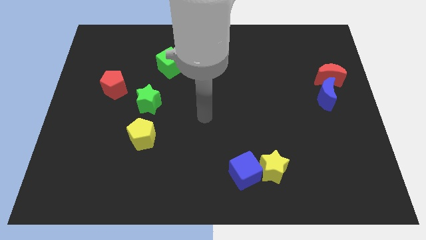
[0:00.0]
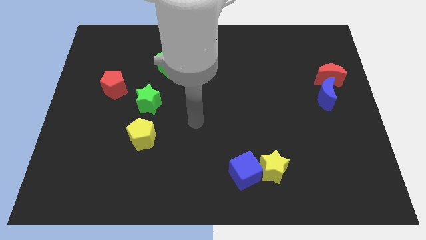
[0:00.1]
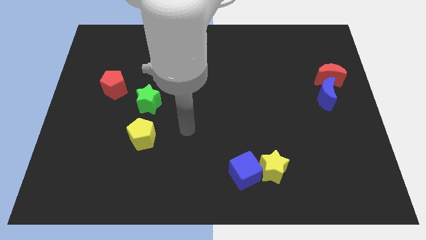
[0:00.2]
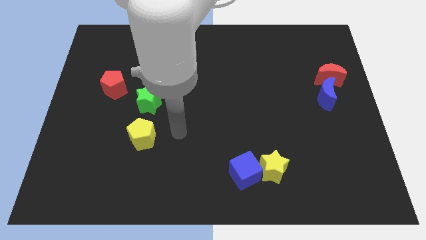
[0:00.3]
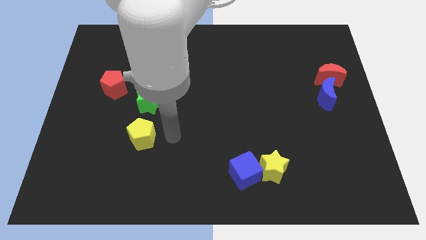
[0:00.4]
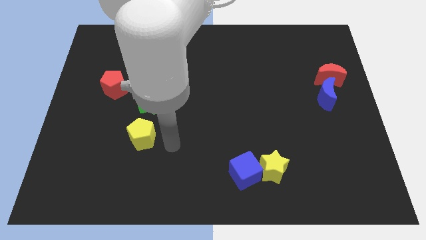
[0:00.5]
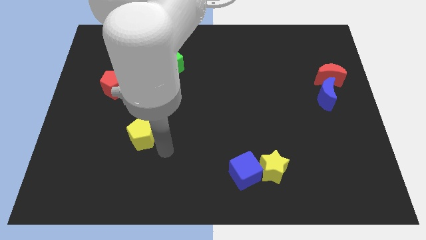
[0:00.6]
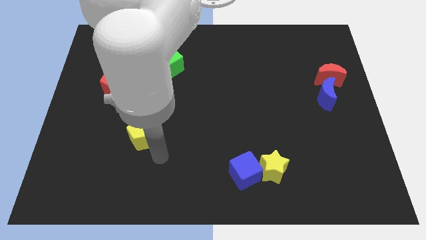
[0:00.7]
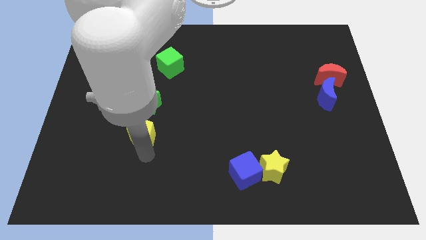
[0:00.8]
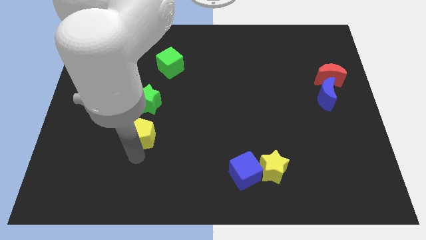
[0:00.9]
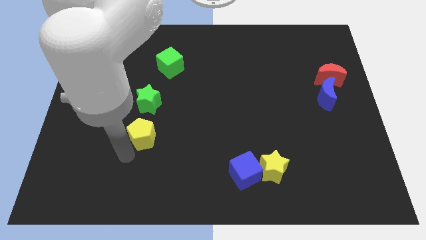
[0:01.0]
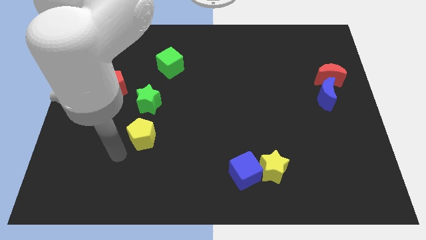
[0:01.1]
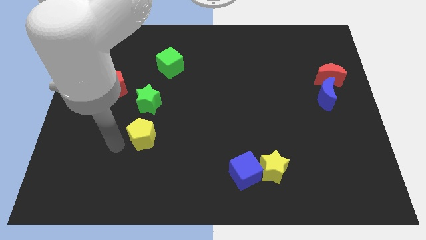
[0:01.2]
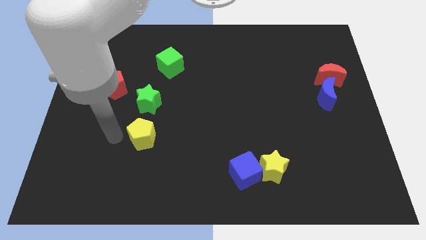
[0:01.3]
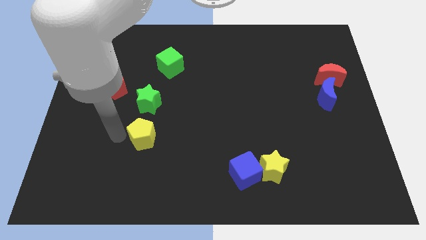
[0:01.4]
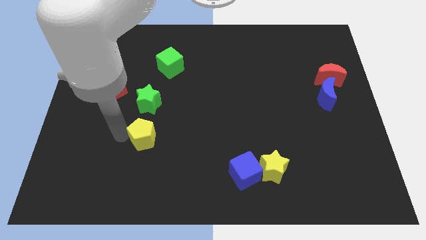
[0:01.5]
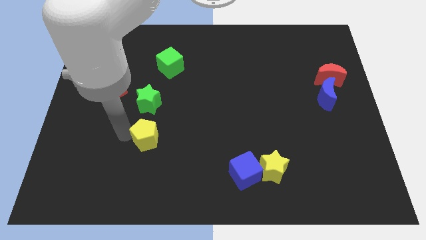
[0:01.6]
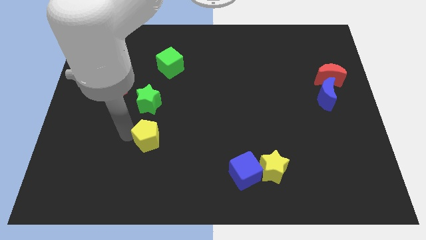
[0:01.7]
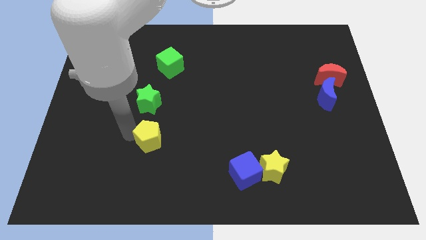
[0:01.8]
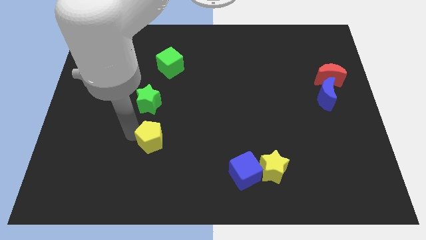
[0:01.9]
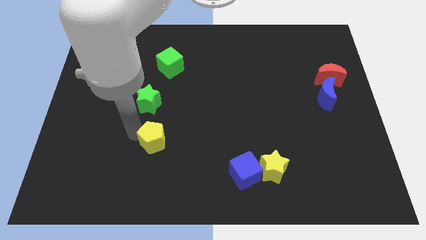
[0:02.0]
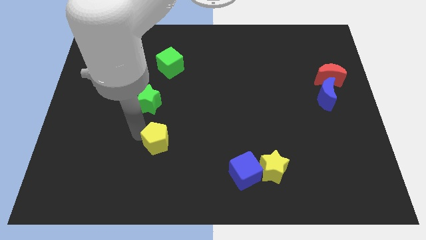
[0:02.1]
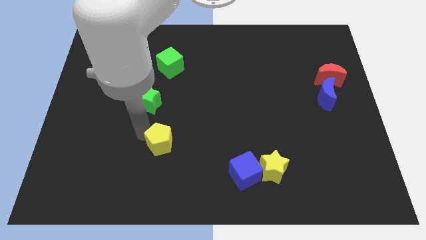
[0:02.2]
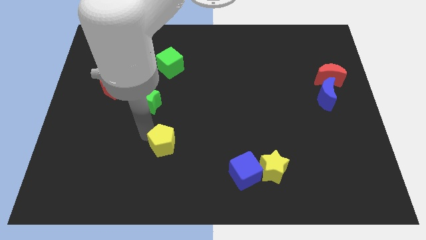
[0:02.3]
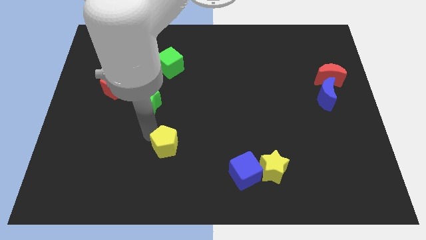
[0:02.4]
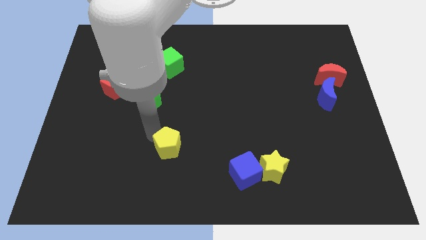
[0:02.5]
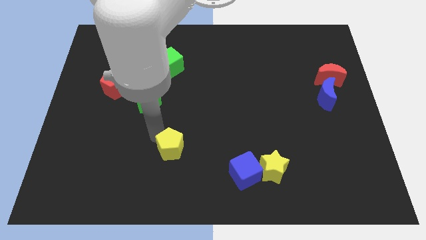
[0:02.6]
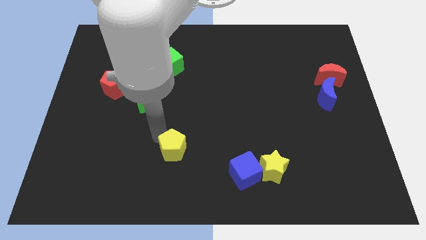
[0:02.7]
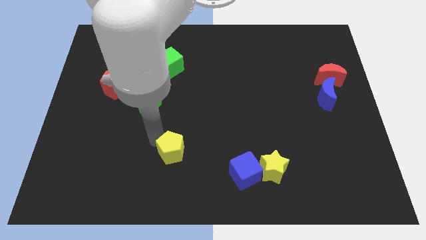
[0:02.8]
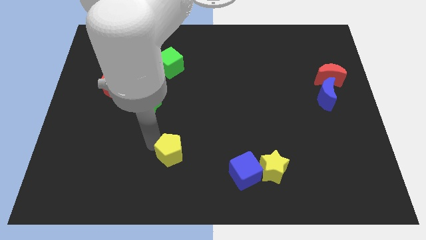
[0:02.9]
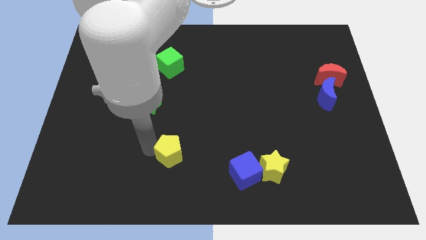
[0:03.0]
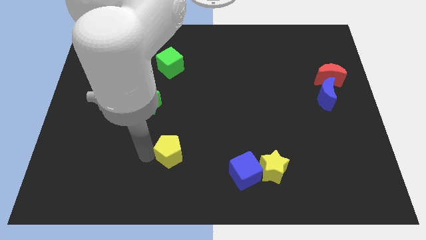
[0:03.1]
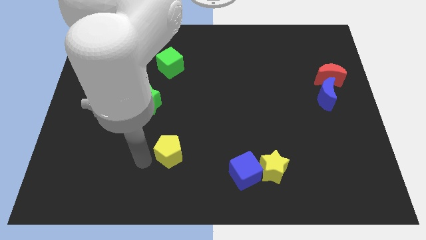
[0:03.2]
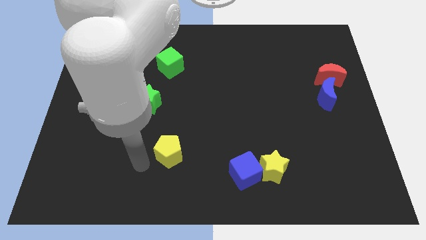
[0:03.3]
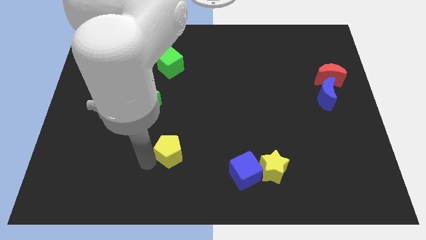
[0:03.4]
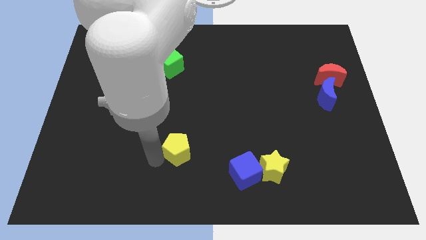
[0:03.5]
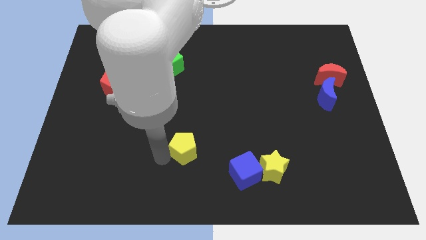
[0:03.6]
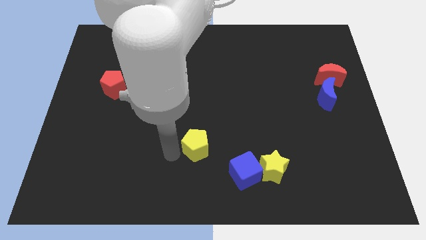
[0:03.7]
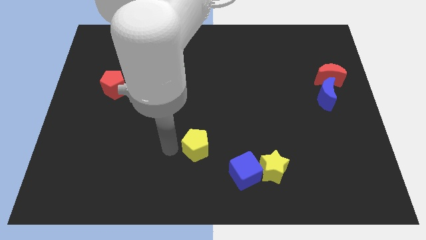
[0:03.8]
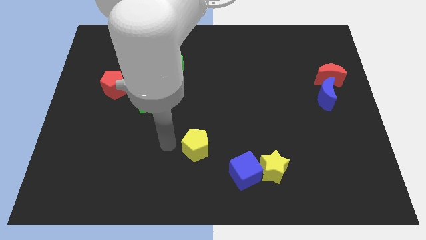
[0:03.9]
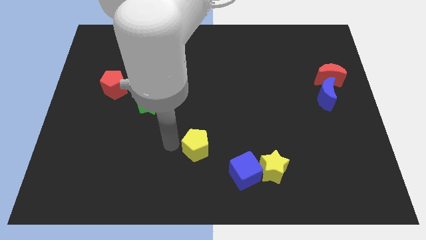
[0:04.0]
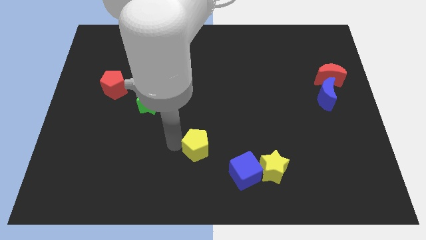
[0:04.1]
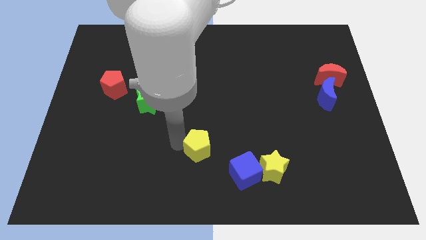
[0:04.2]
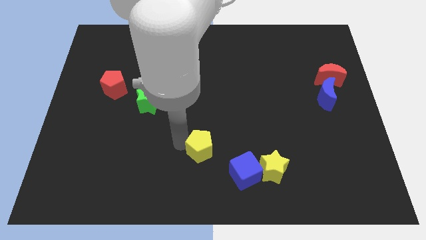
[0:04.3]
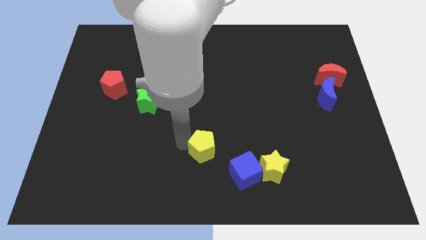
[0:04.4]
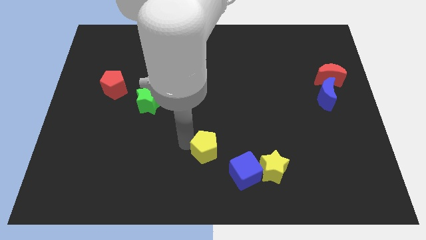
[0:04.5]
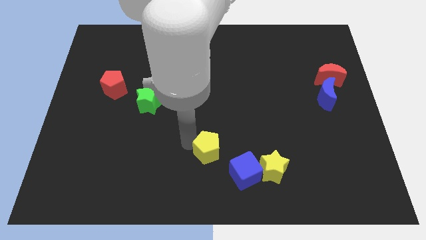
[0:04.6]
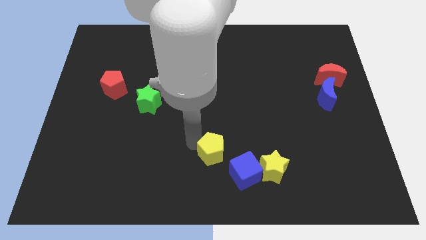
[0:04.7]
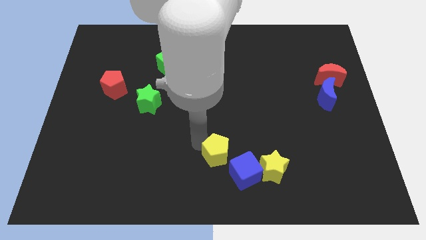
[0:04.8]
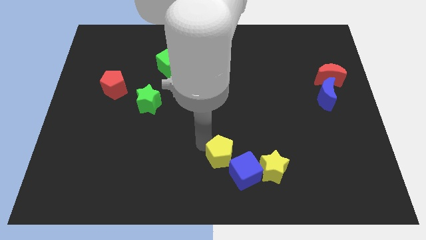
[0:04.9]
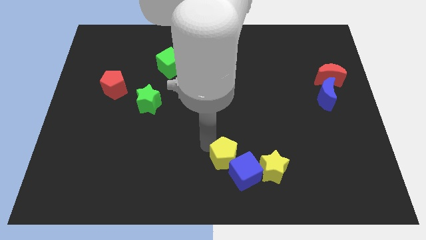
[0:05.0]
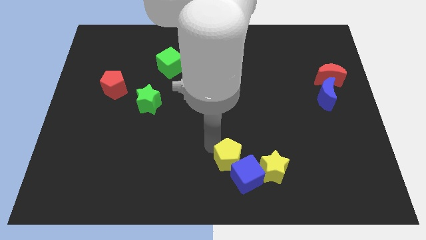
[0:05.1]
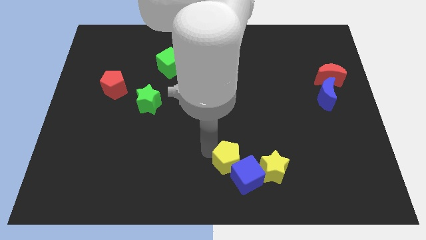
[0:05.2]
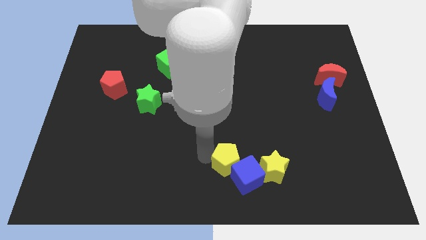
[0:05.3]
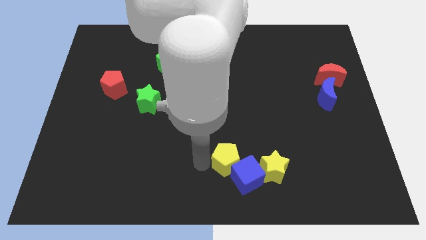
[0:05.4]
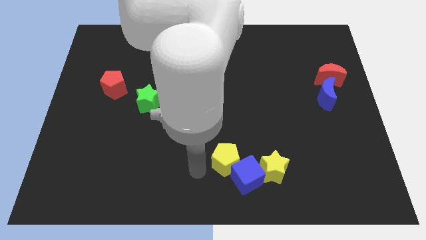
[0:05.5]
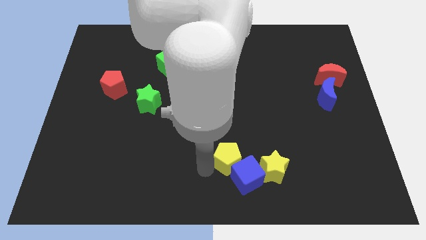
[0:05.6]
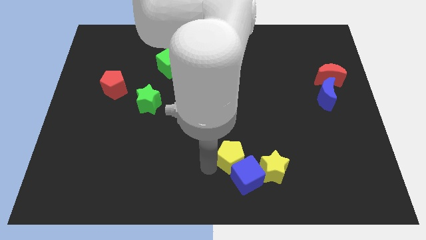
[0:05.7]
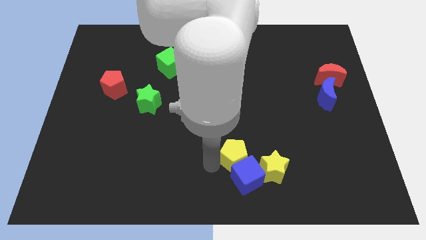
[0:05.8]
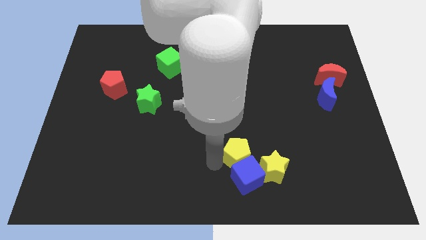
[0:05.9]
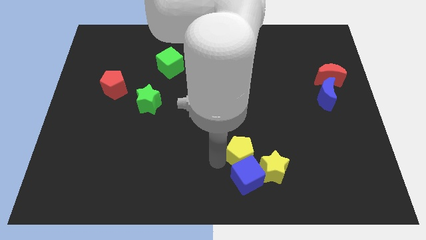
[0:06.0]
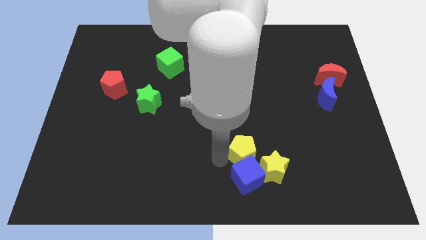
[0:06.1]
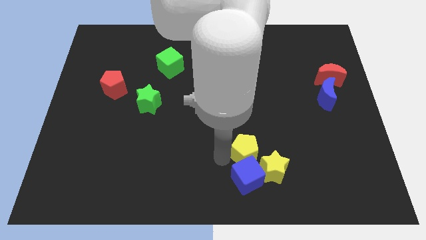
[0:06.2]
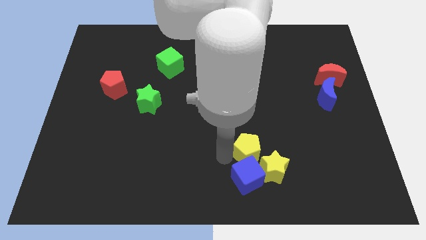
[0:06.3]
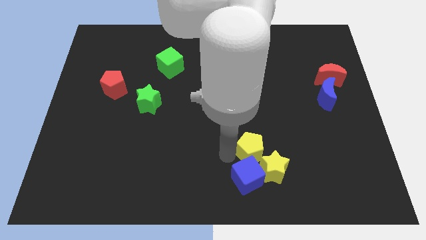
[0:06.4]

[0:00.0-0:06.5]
put the yellow pentagon towards the yellow star
